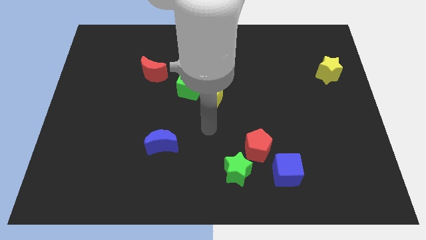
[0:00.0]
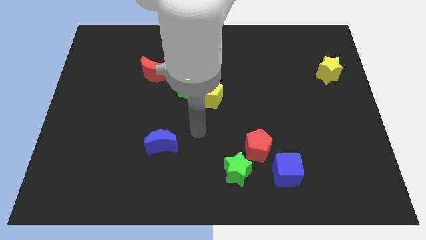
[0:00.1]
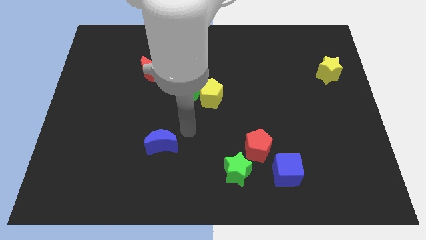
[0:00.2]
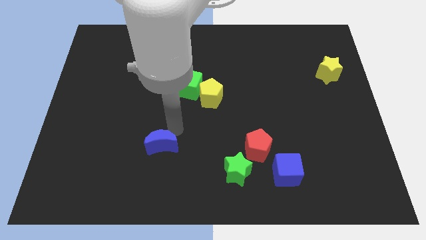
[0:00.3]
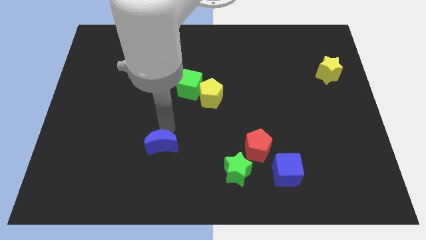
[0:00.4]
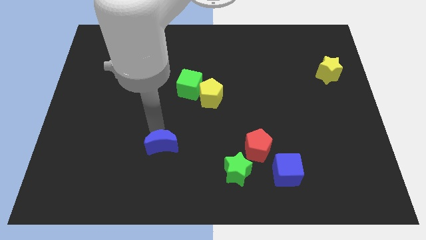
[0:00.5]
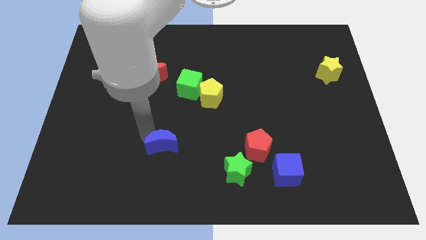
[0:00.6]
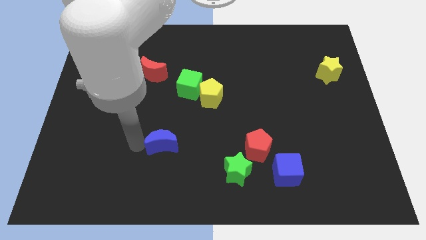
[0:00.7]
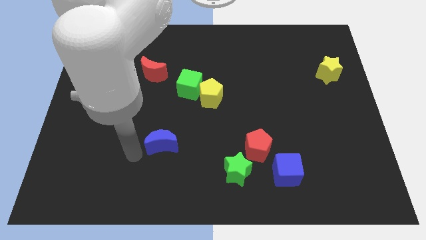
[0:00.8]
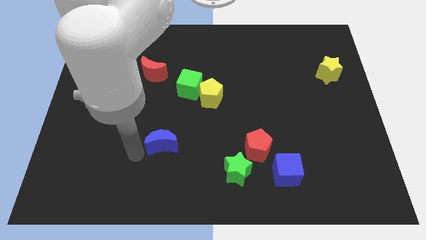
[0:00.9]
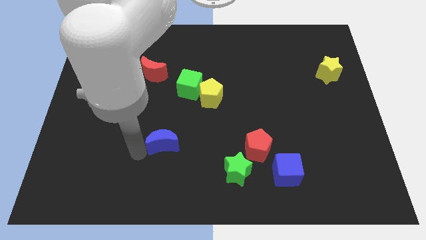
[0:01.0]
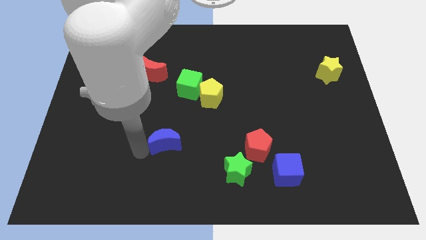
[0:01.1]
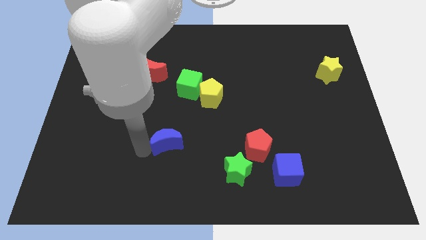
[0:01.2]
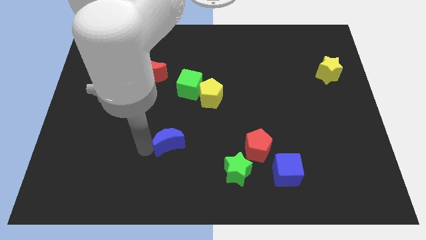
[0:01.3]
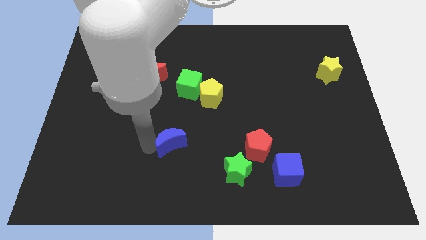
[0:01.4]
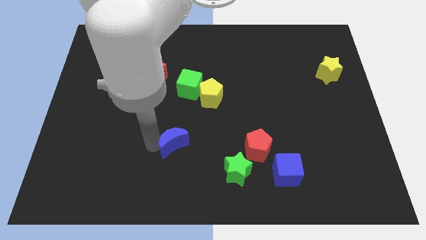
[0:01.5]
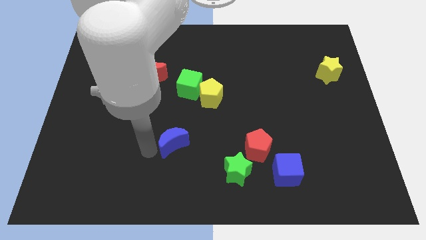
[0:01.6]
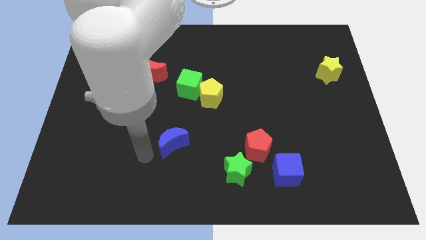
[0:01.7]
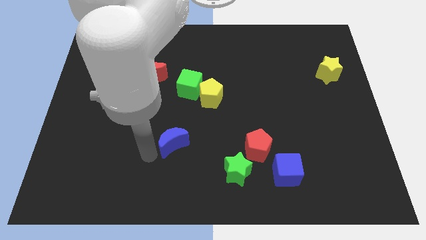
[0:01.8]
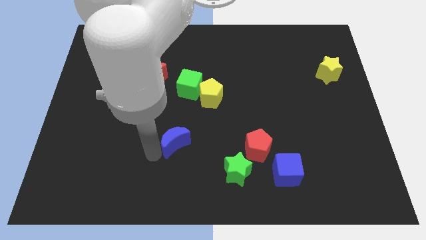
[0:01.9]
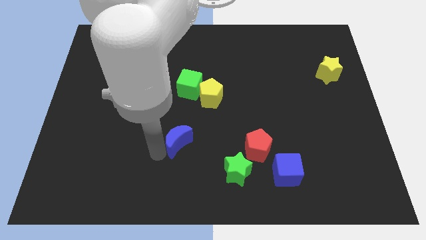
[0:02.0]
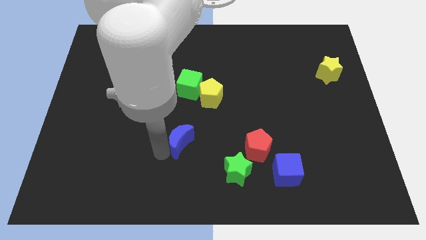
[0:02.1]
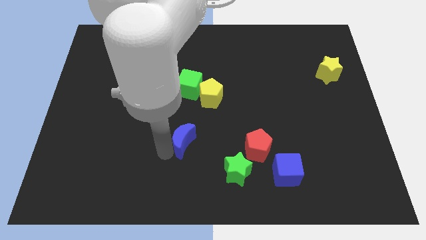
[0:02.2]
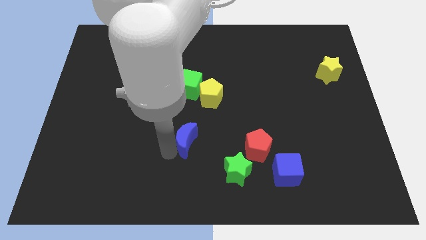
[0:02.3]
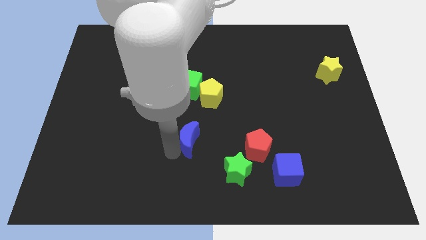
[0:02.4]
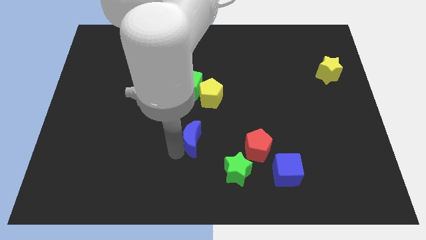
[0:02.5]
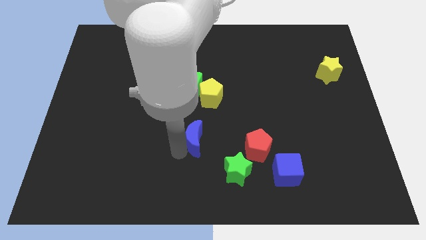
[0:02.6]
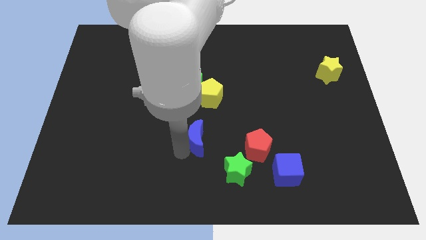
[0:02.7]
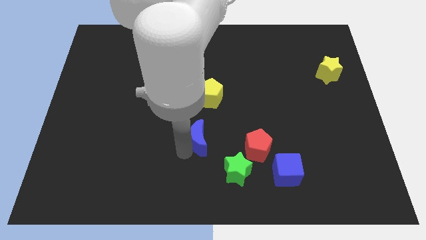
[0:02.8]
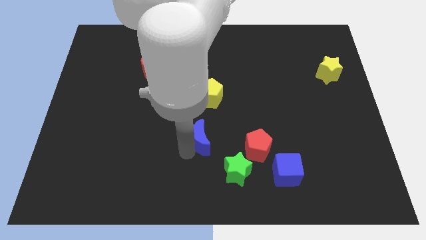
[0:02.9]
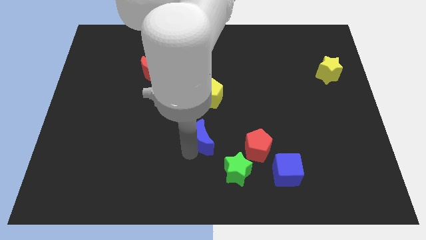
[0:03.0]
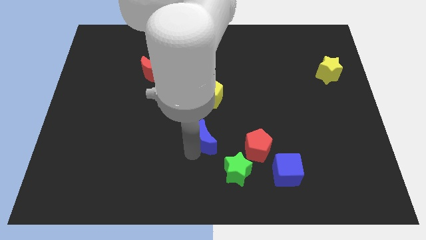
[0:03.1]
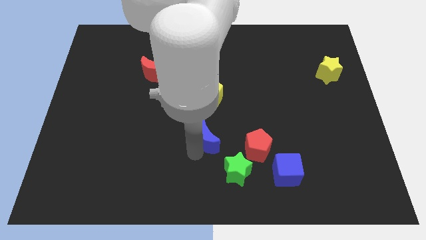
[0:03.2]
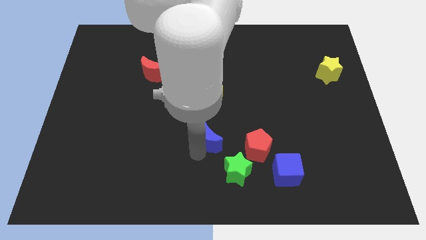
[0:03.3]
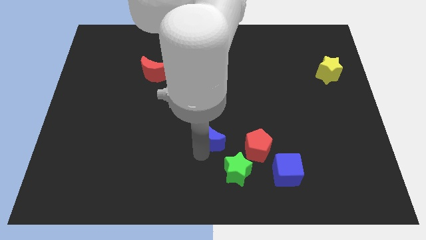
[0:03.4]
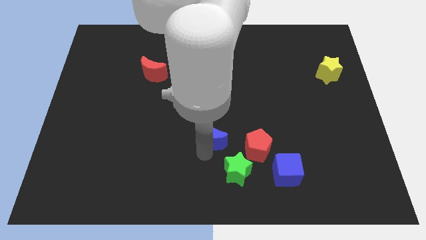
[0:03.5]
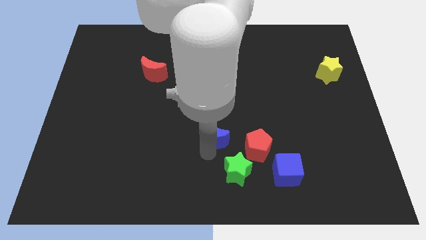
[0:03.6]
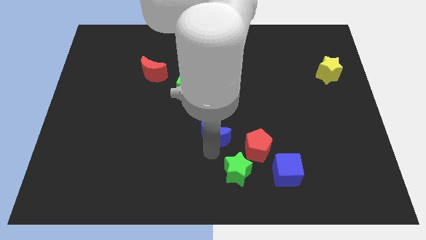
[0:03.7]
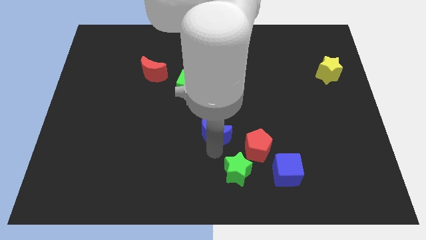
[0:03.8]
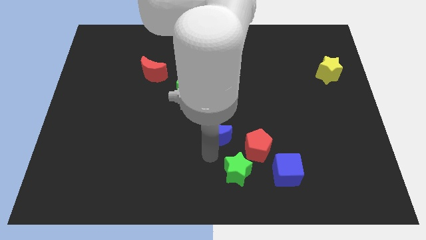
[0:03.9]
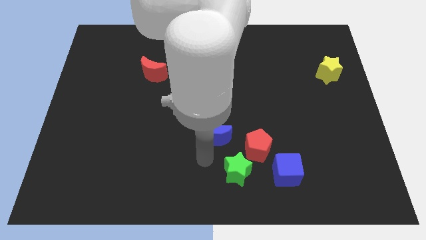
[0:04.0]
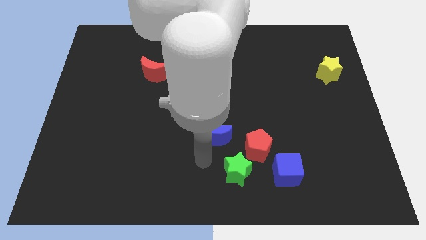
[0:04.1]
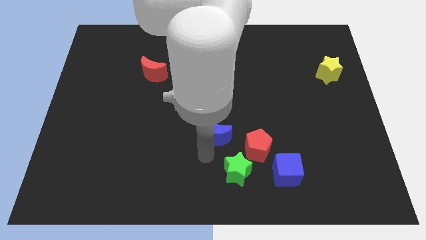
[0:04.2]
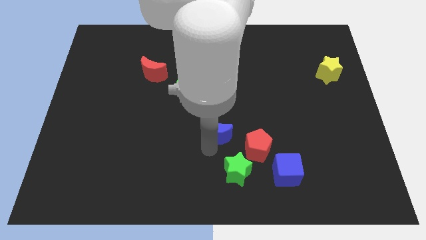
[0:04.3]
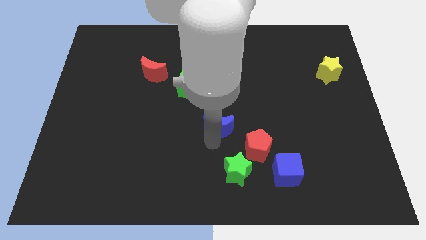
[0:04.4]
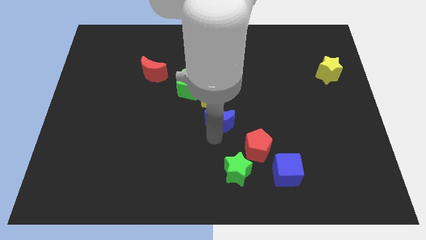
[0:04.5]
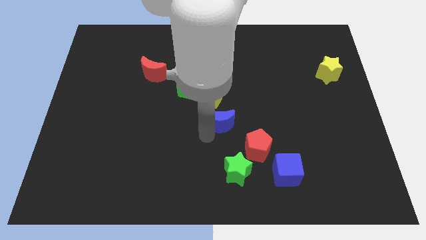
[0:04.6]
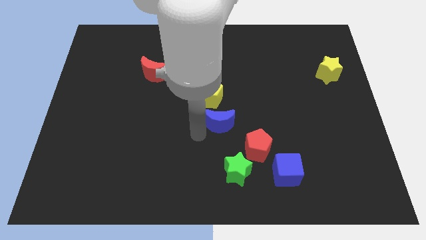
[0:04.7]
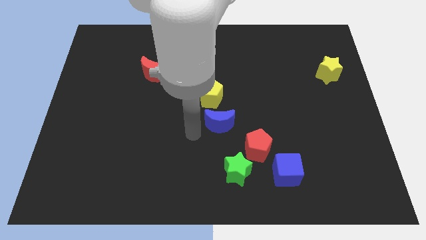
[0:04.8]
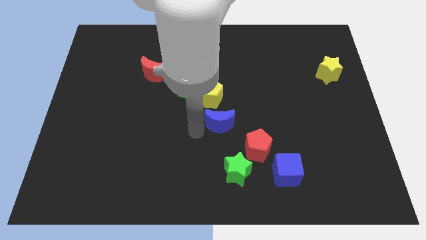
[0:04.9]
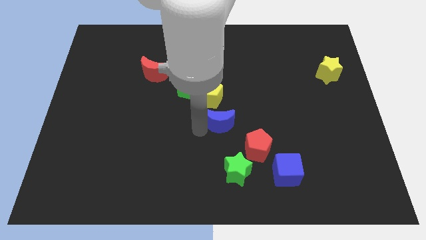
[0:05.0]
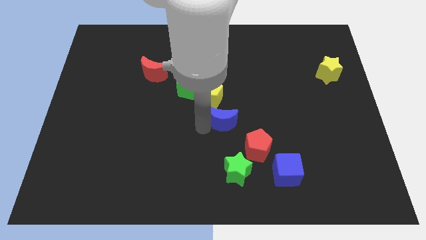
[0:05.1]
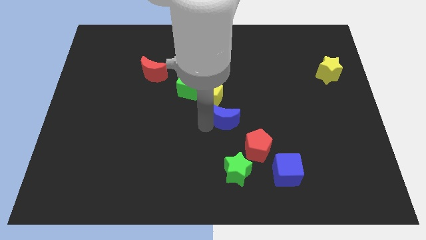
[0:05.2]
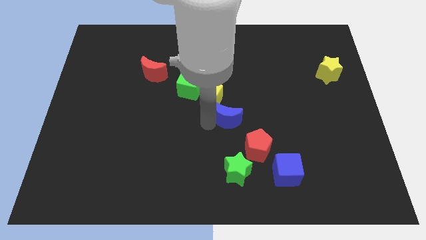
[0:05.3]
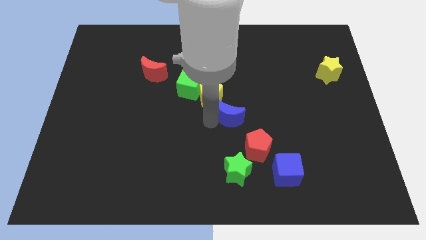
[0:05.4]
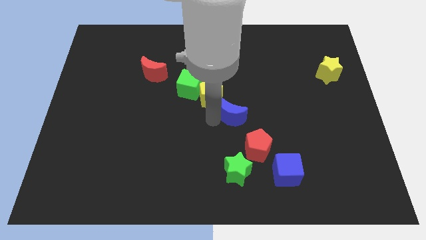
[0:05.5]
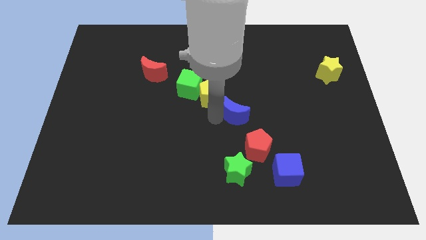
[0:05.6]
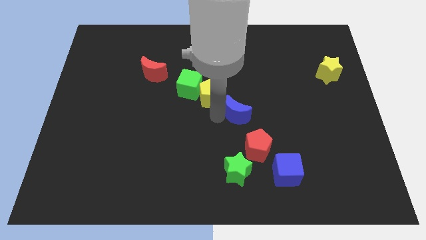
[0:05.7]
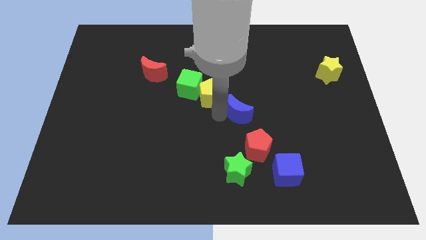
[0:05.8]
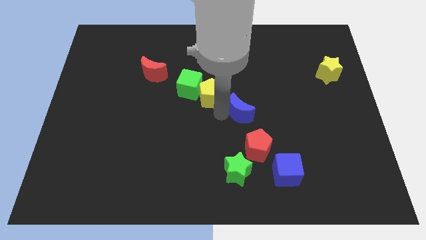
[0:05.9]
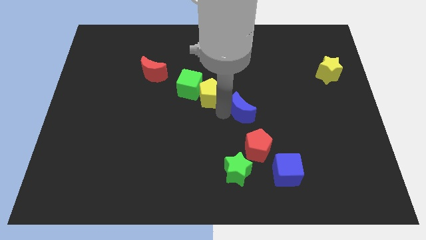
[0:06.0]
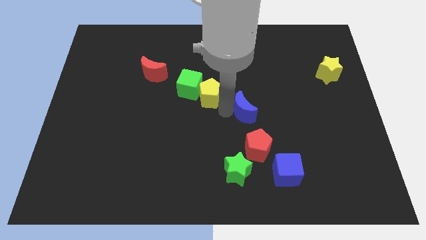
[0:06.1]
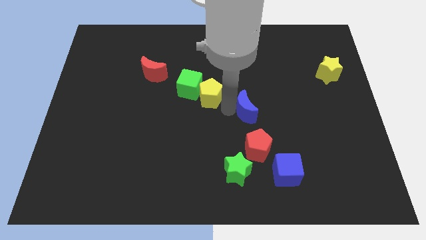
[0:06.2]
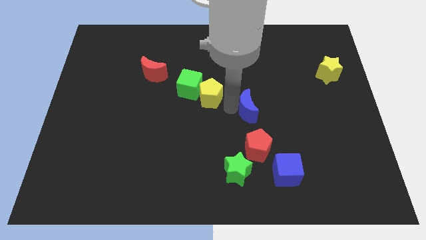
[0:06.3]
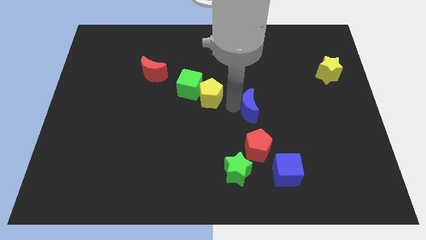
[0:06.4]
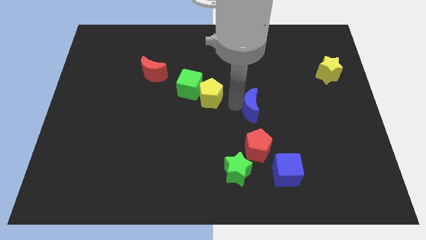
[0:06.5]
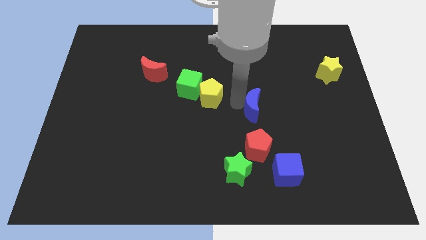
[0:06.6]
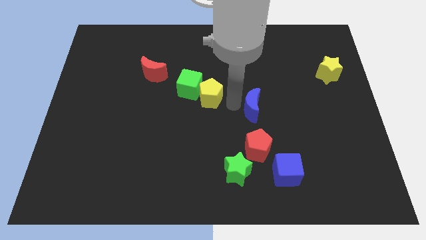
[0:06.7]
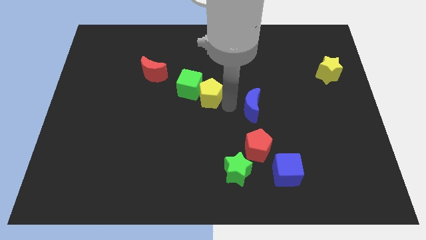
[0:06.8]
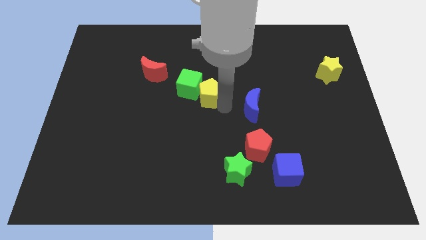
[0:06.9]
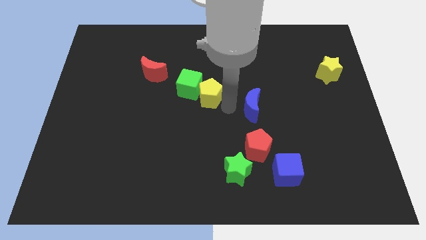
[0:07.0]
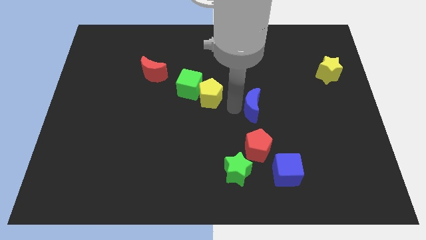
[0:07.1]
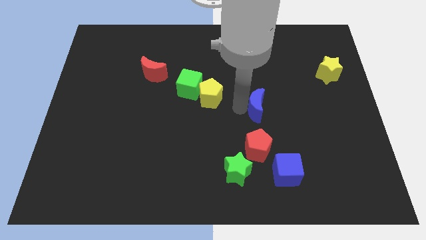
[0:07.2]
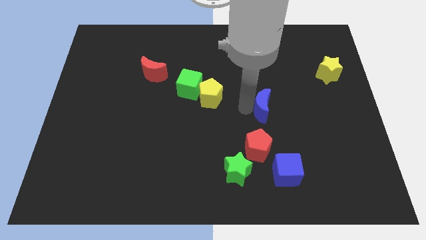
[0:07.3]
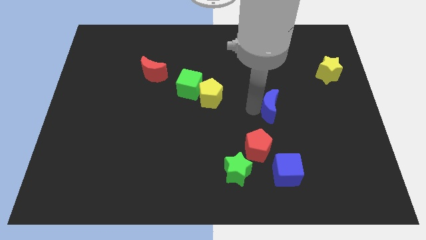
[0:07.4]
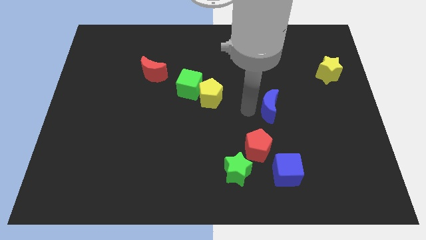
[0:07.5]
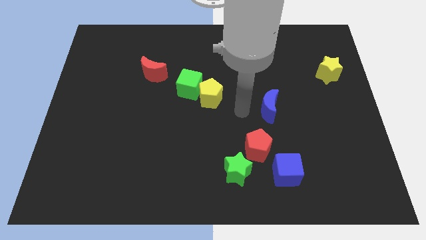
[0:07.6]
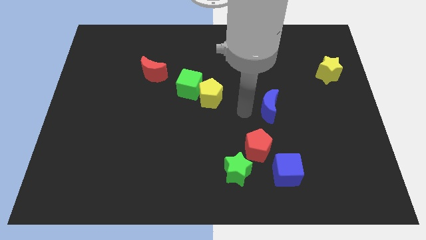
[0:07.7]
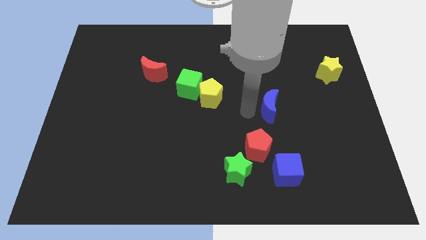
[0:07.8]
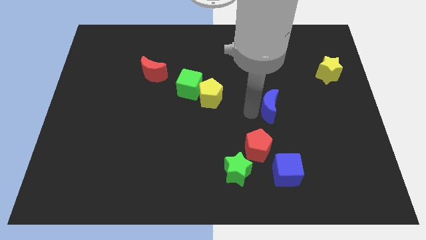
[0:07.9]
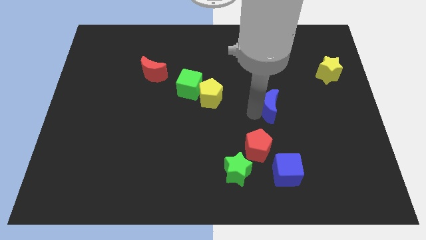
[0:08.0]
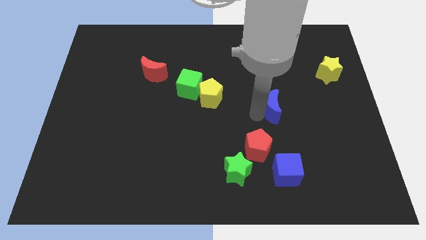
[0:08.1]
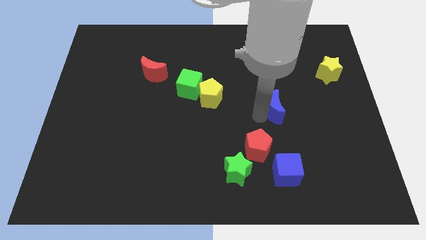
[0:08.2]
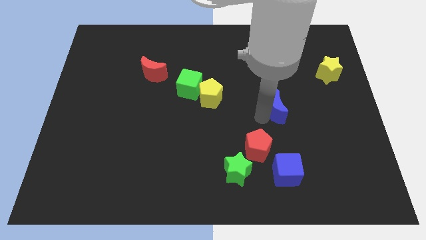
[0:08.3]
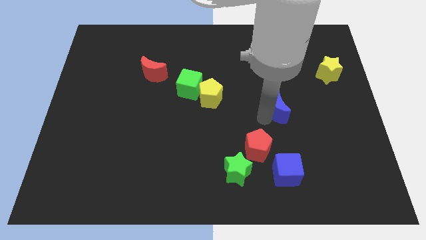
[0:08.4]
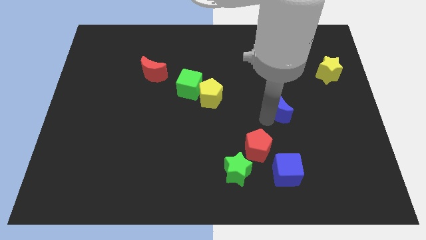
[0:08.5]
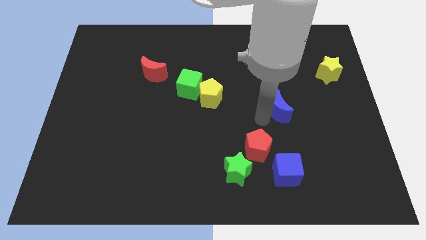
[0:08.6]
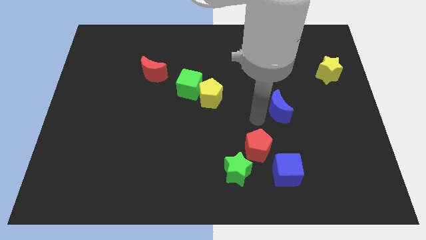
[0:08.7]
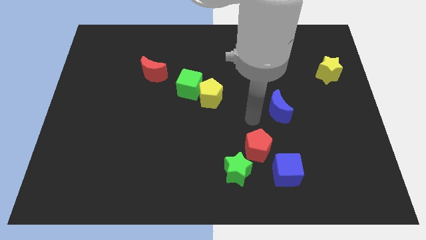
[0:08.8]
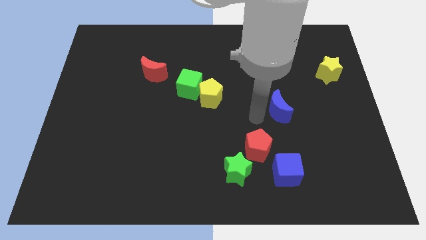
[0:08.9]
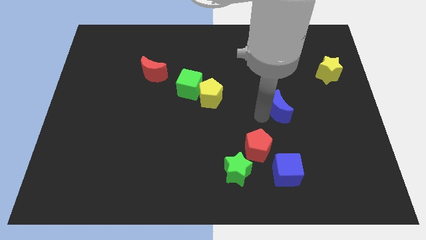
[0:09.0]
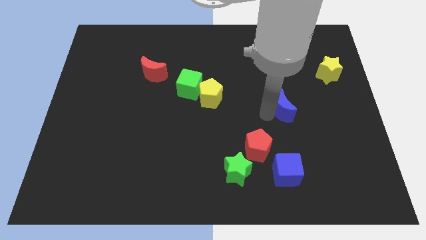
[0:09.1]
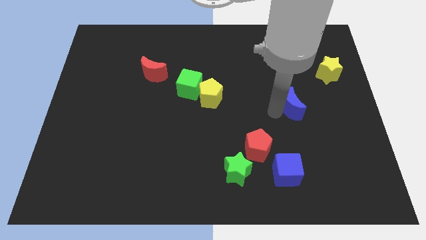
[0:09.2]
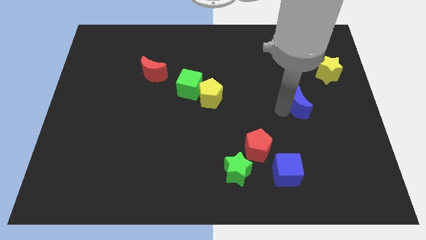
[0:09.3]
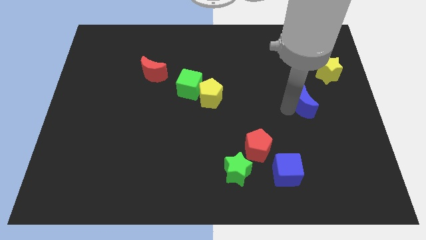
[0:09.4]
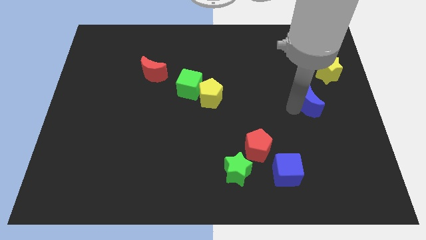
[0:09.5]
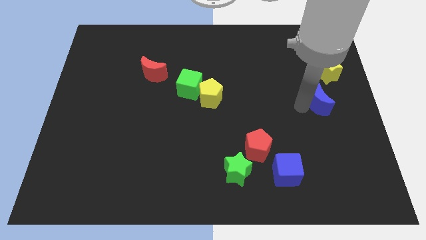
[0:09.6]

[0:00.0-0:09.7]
put the blue moon to the right side
